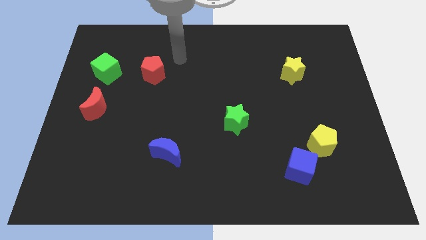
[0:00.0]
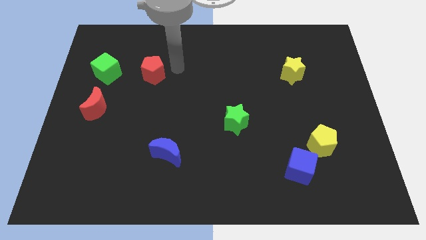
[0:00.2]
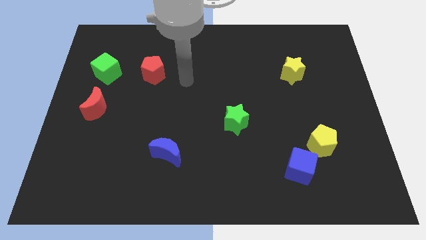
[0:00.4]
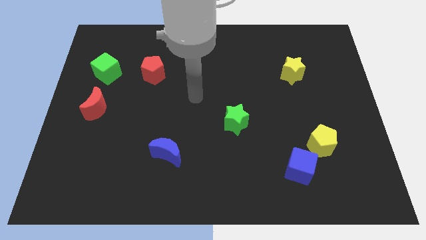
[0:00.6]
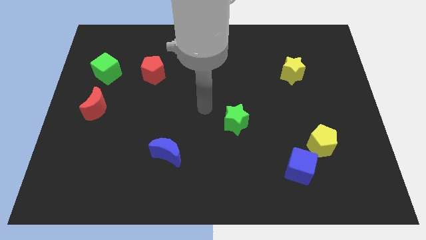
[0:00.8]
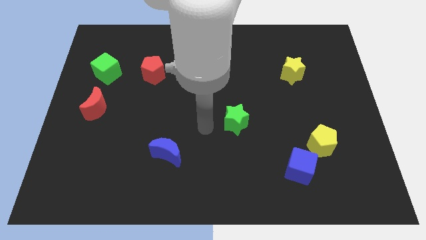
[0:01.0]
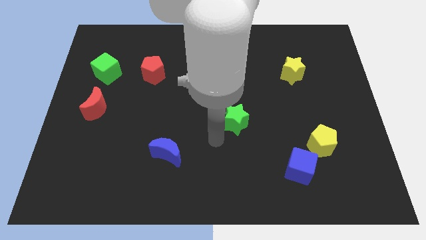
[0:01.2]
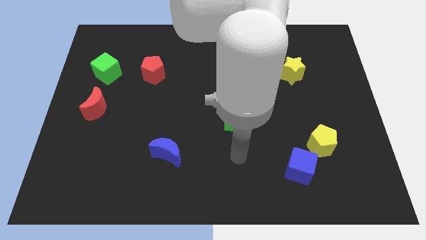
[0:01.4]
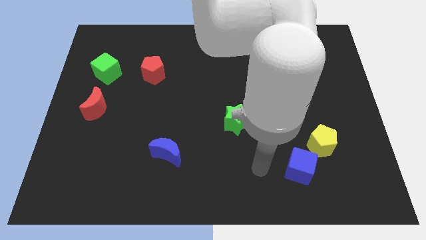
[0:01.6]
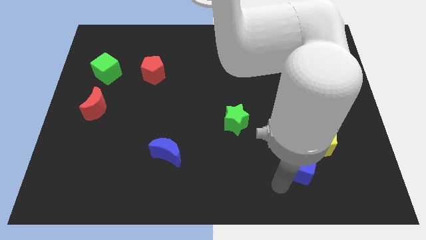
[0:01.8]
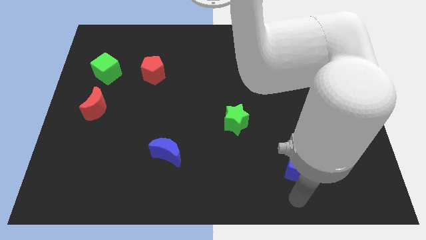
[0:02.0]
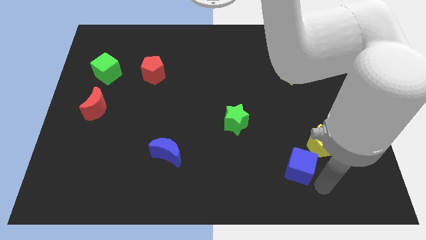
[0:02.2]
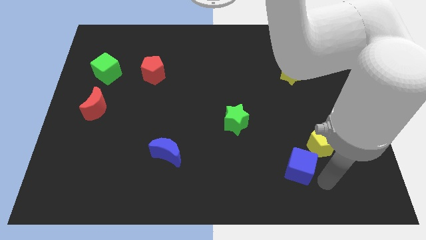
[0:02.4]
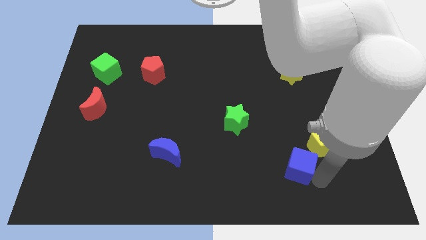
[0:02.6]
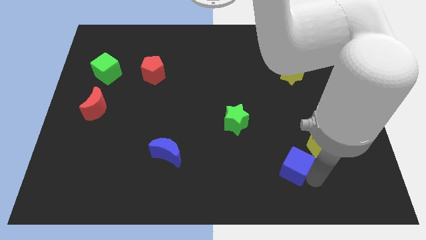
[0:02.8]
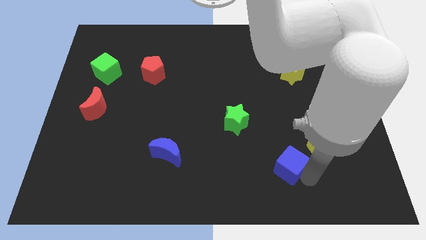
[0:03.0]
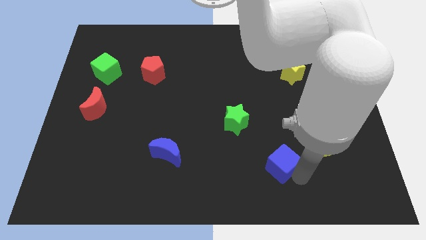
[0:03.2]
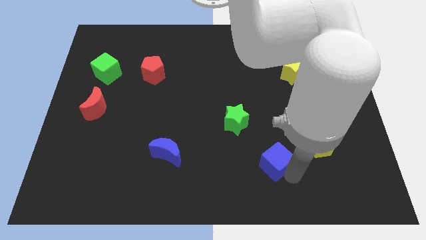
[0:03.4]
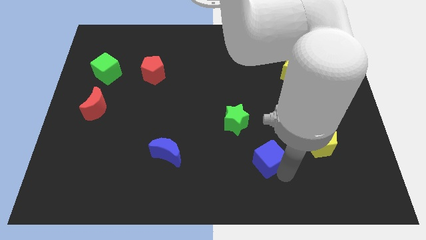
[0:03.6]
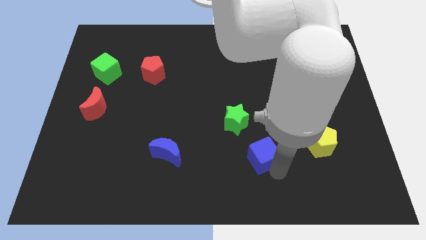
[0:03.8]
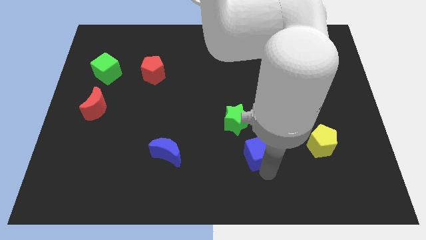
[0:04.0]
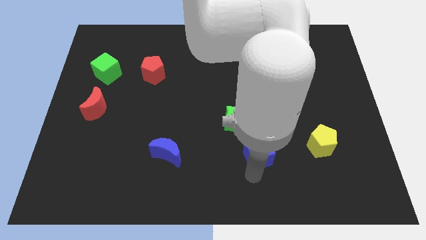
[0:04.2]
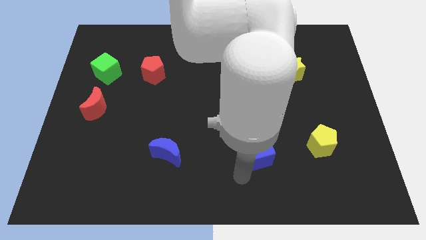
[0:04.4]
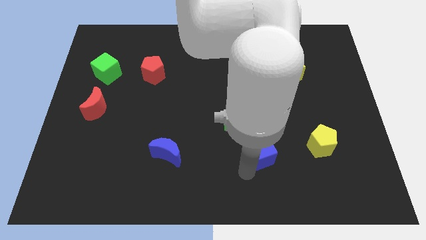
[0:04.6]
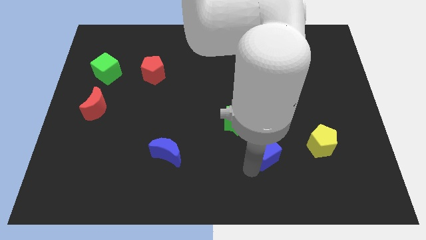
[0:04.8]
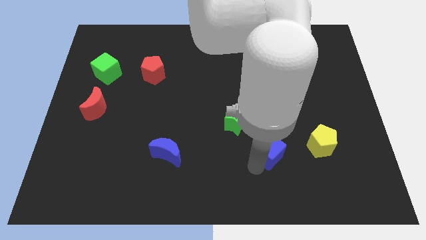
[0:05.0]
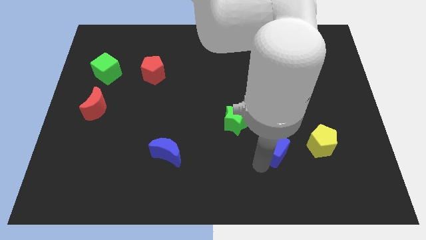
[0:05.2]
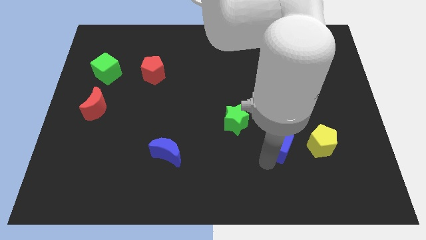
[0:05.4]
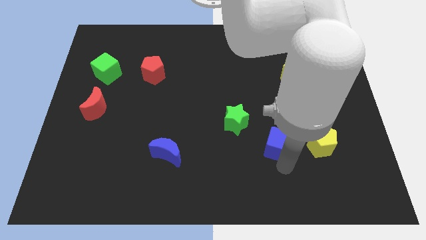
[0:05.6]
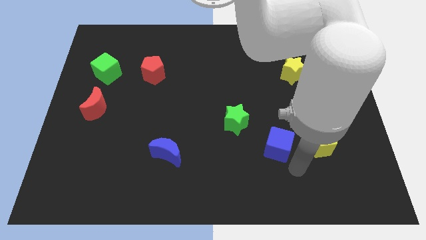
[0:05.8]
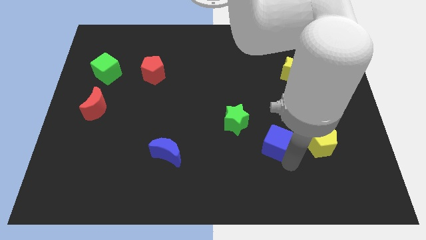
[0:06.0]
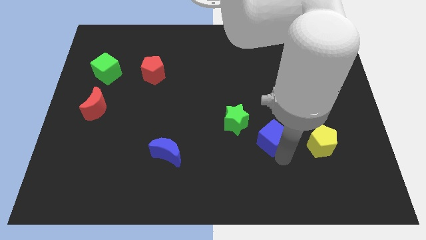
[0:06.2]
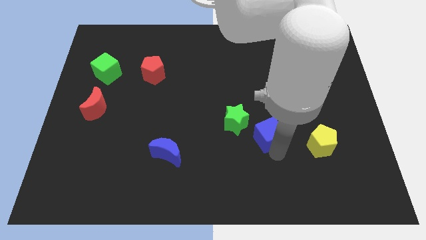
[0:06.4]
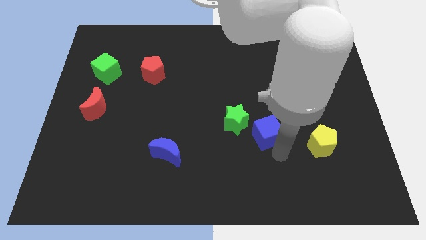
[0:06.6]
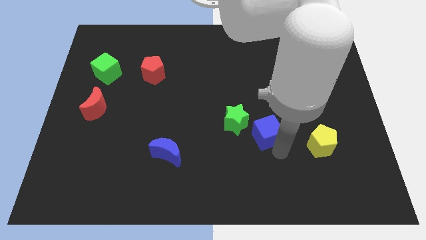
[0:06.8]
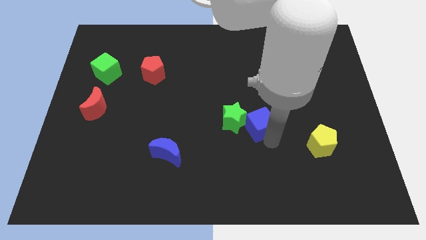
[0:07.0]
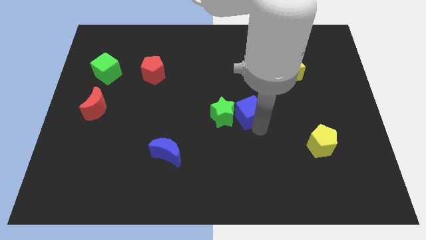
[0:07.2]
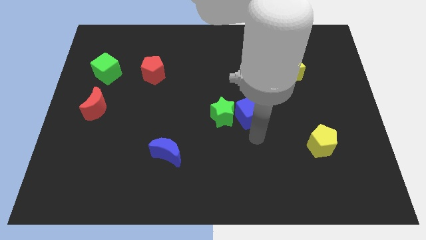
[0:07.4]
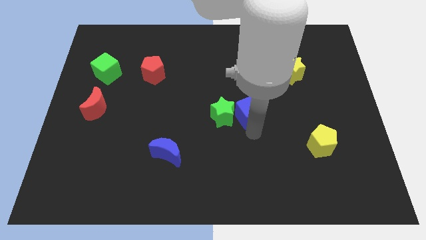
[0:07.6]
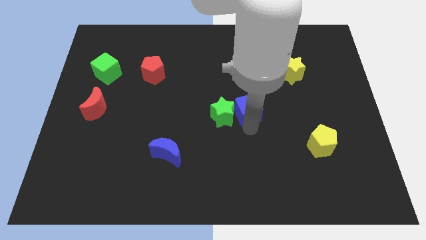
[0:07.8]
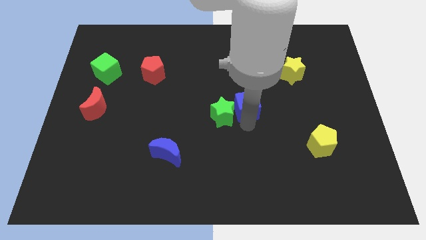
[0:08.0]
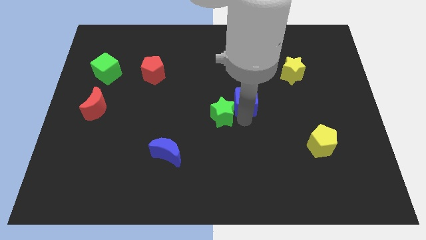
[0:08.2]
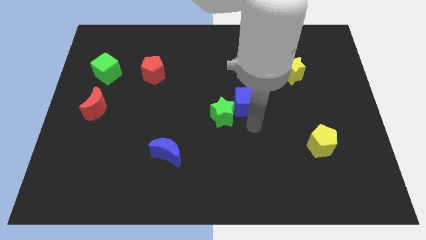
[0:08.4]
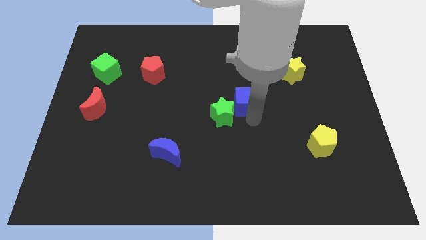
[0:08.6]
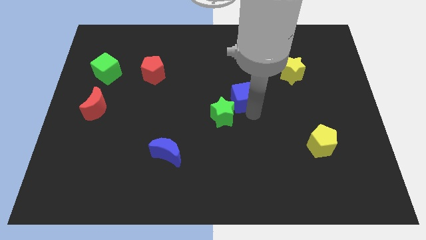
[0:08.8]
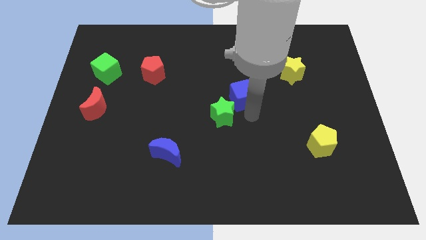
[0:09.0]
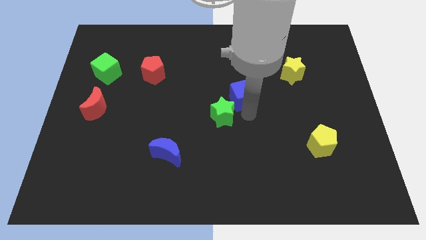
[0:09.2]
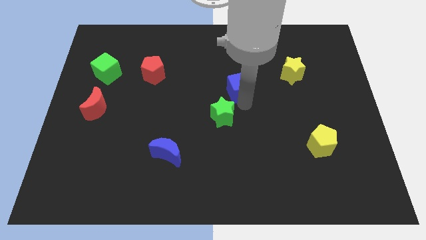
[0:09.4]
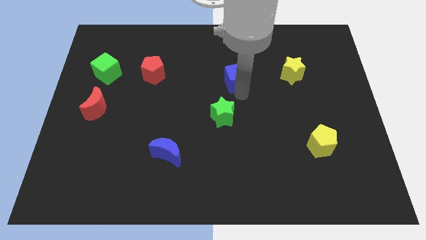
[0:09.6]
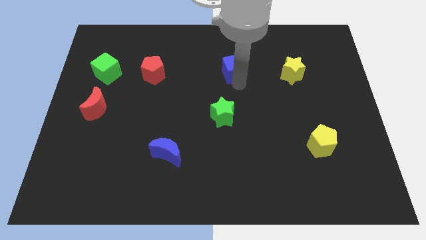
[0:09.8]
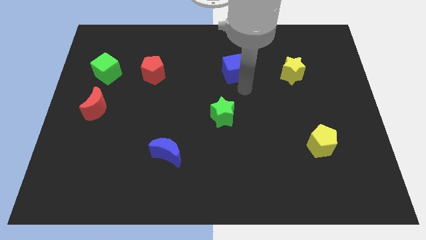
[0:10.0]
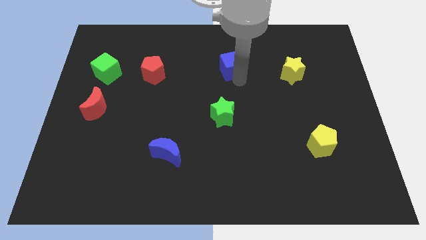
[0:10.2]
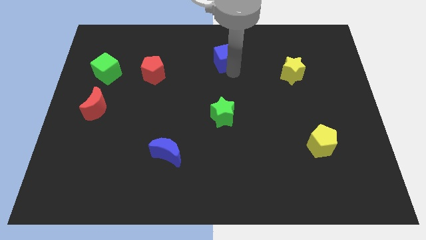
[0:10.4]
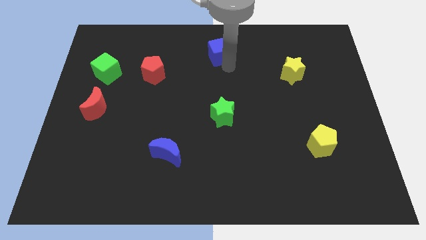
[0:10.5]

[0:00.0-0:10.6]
slide the blue cube to the top side

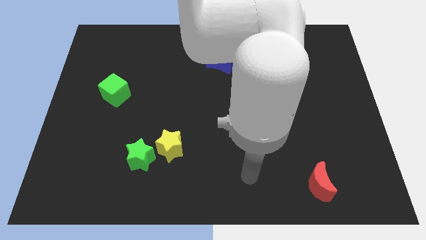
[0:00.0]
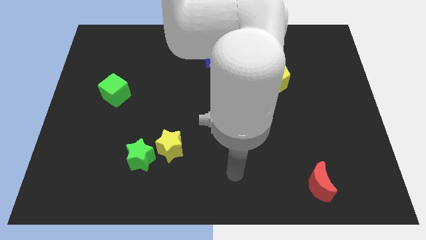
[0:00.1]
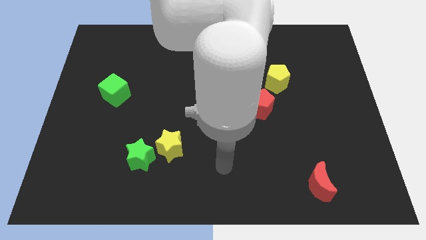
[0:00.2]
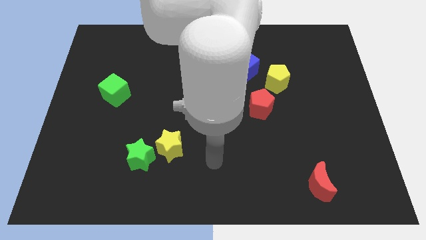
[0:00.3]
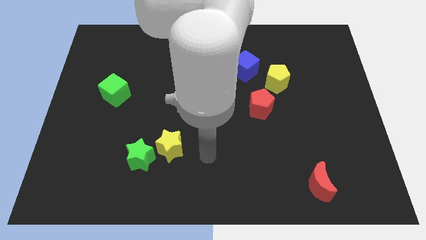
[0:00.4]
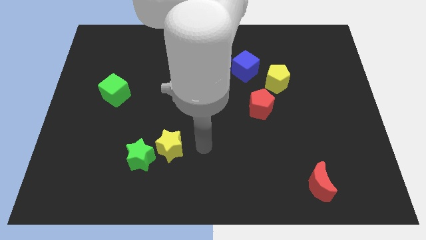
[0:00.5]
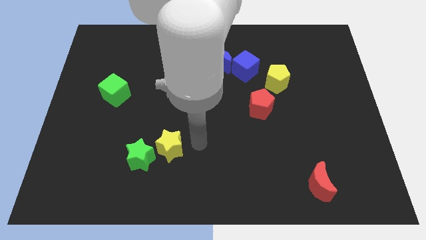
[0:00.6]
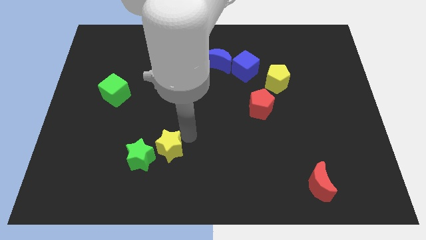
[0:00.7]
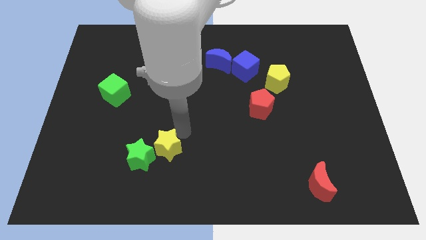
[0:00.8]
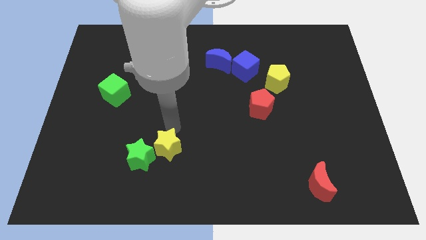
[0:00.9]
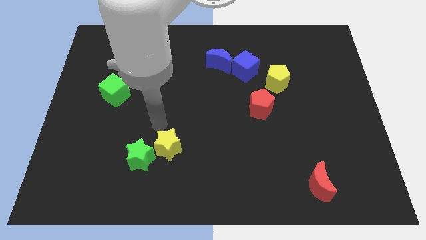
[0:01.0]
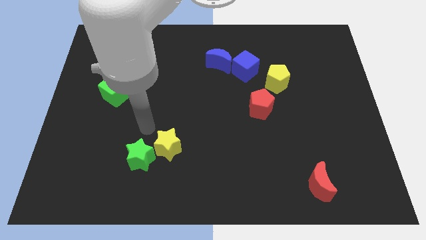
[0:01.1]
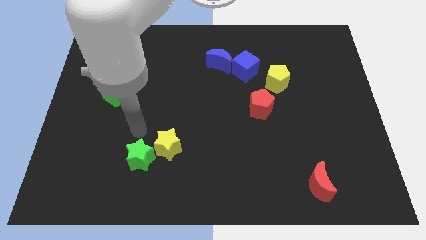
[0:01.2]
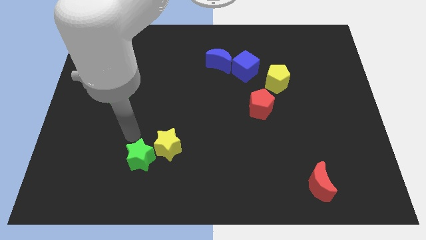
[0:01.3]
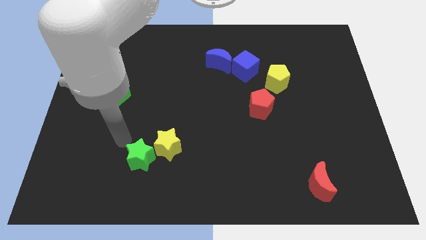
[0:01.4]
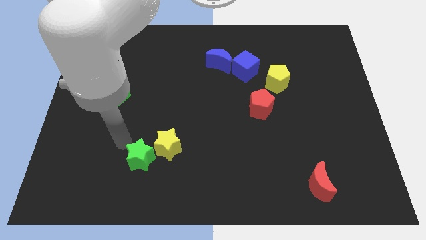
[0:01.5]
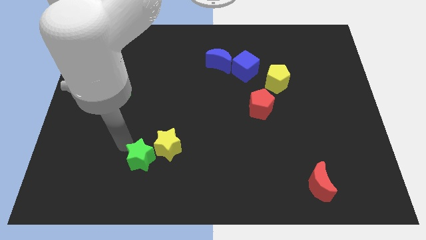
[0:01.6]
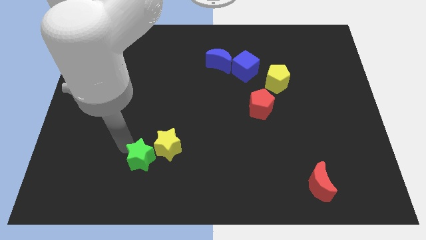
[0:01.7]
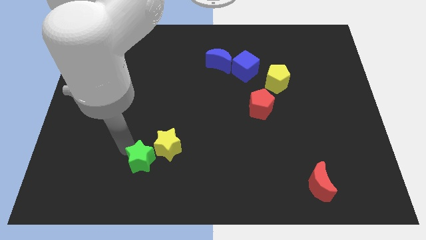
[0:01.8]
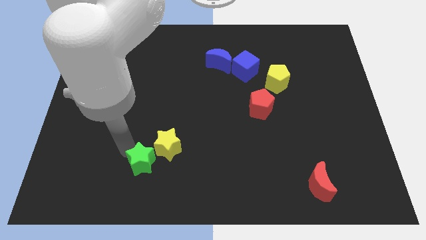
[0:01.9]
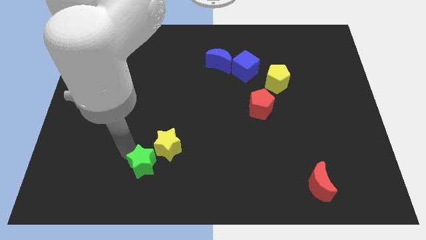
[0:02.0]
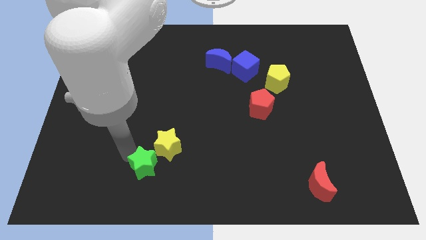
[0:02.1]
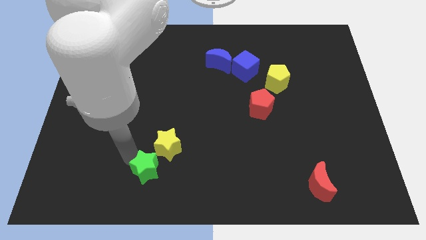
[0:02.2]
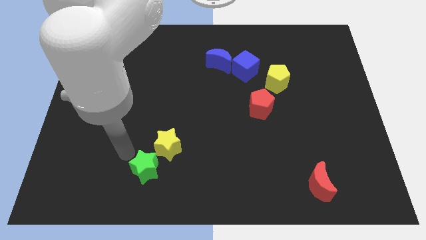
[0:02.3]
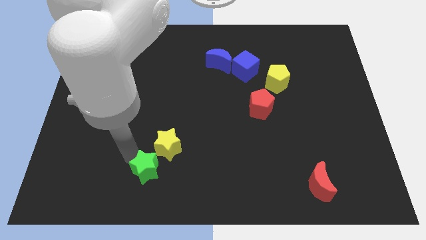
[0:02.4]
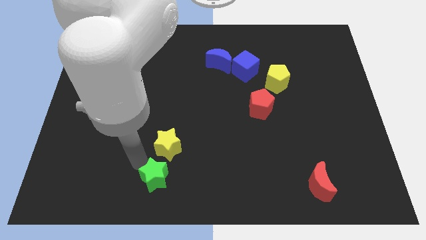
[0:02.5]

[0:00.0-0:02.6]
put the green star to the bottom

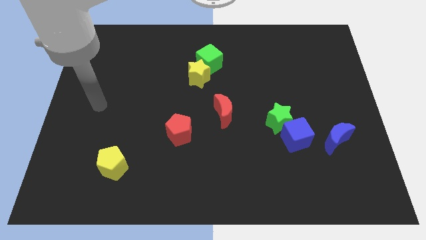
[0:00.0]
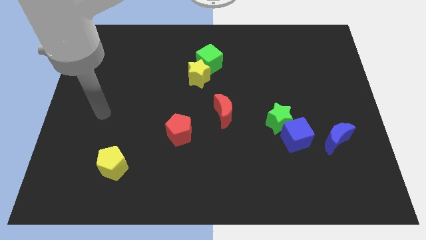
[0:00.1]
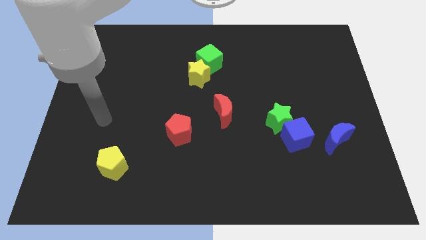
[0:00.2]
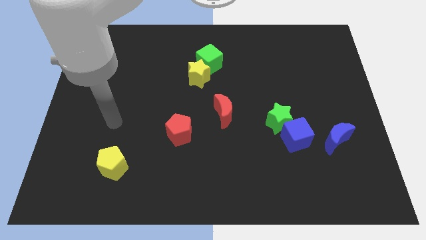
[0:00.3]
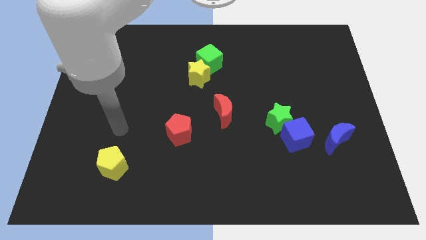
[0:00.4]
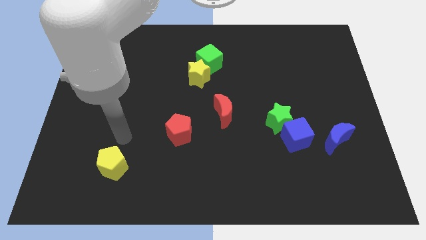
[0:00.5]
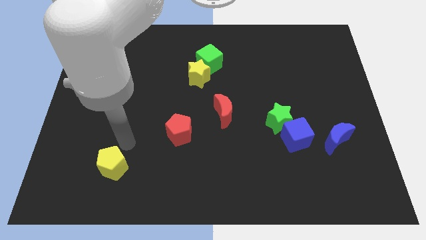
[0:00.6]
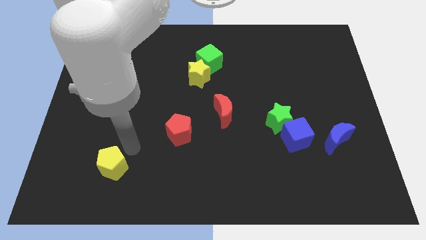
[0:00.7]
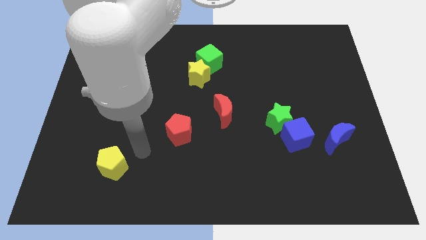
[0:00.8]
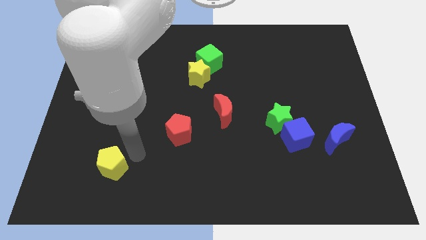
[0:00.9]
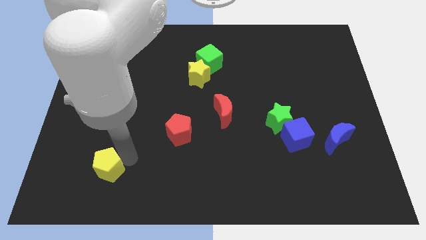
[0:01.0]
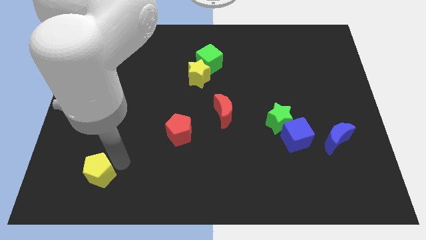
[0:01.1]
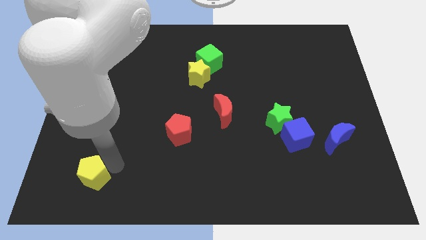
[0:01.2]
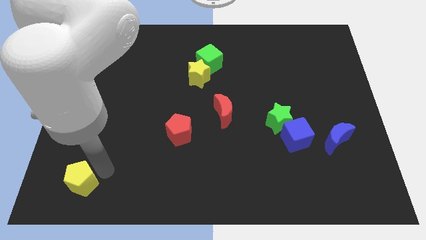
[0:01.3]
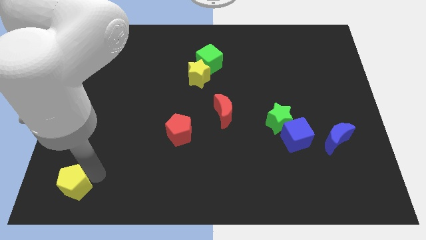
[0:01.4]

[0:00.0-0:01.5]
push the yellow pentagon to the bottom left
